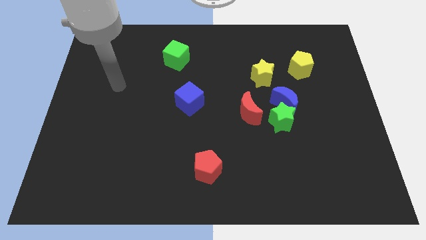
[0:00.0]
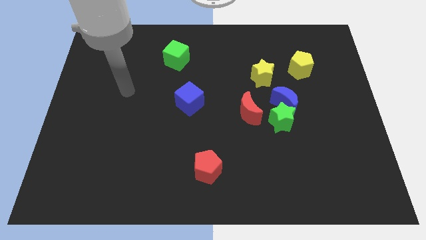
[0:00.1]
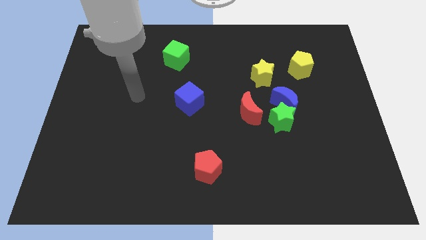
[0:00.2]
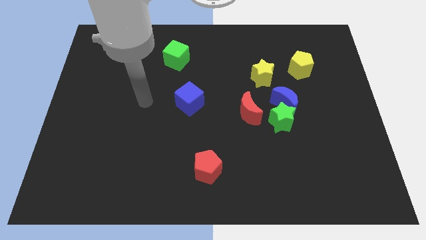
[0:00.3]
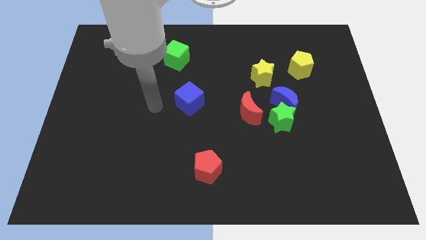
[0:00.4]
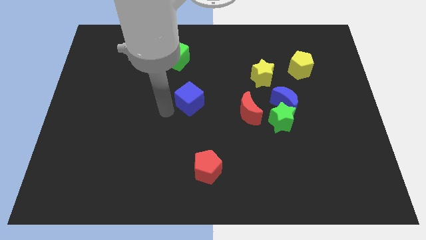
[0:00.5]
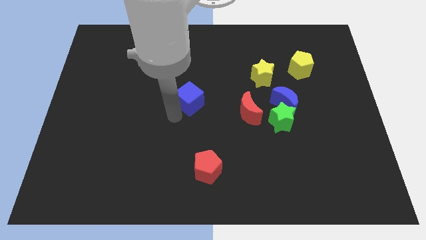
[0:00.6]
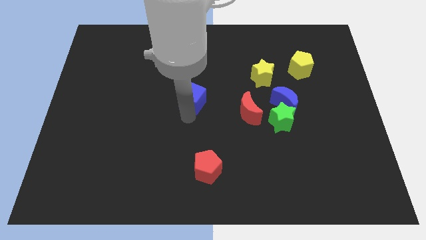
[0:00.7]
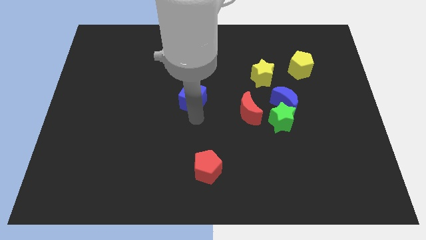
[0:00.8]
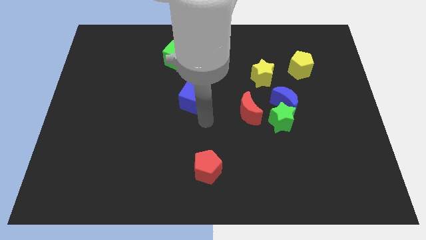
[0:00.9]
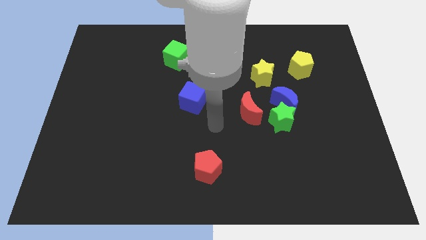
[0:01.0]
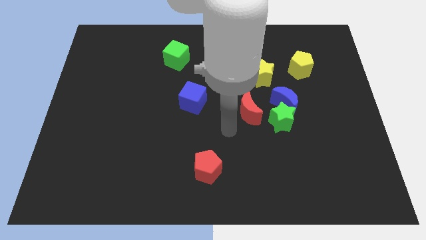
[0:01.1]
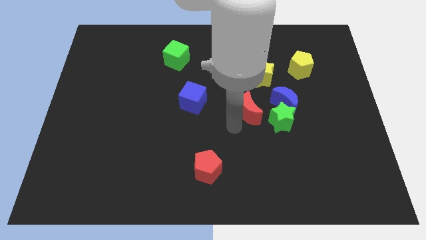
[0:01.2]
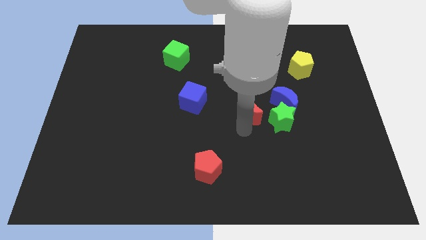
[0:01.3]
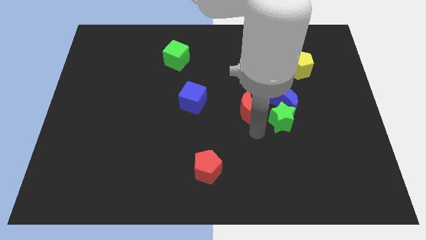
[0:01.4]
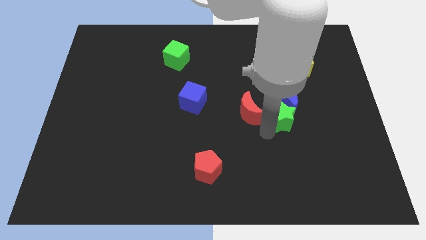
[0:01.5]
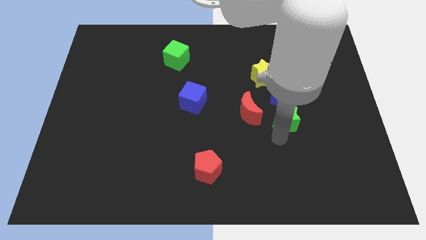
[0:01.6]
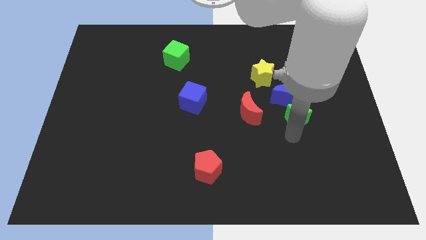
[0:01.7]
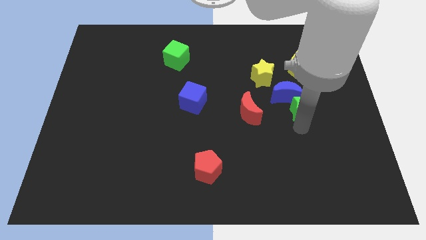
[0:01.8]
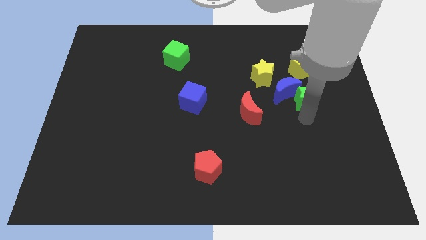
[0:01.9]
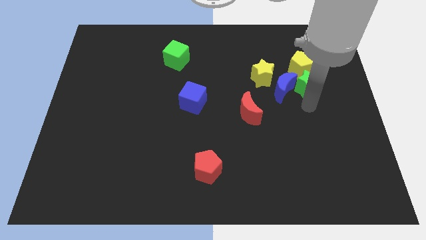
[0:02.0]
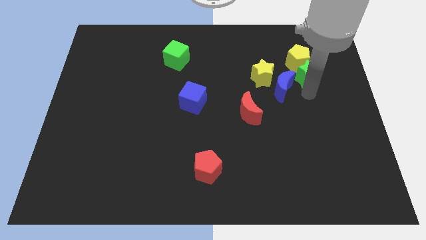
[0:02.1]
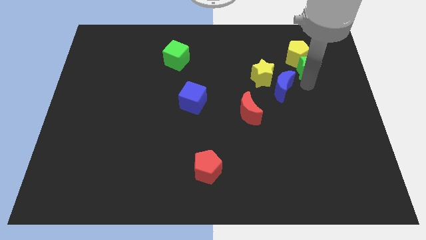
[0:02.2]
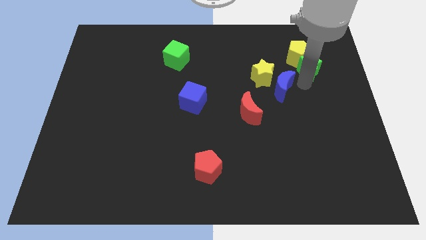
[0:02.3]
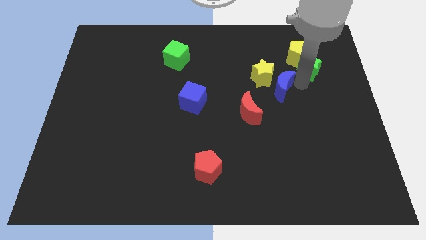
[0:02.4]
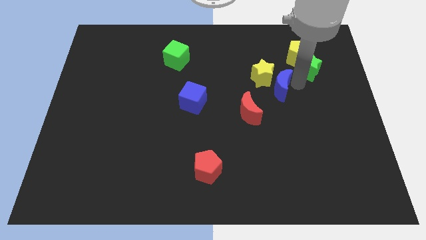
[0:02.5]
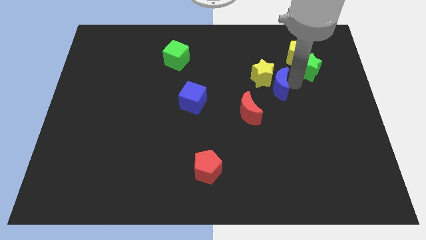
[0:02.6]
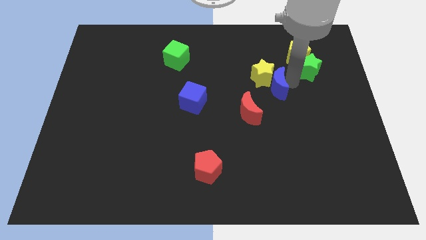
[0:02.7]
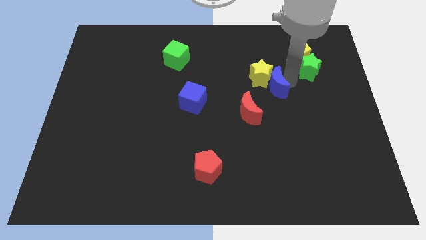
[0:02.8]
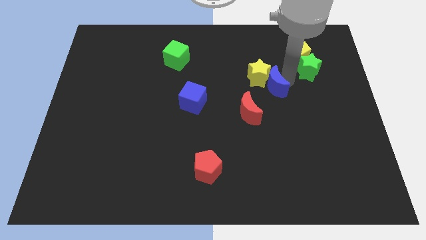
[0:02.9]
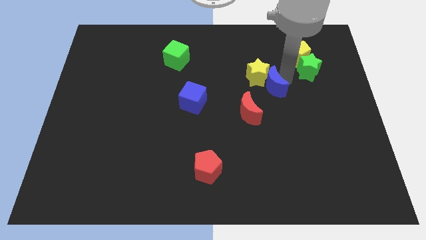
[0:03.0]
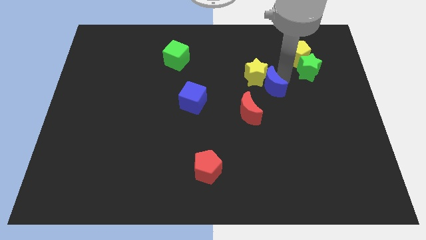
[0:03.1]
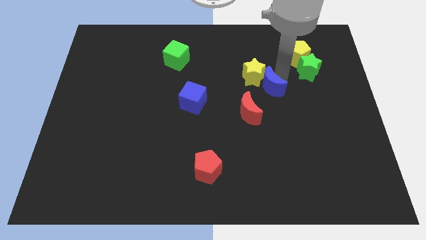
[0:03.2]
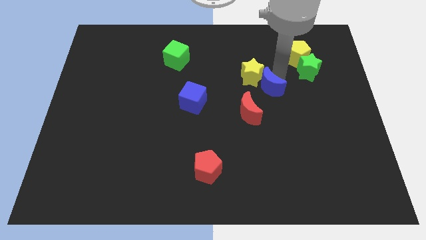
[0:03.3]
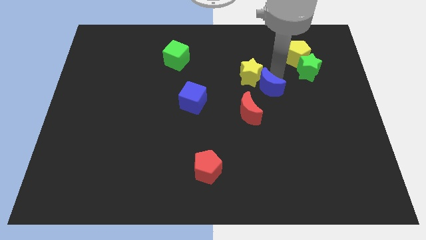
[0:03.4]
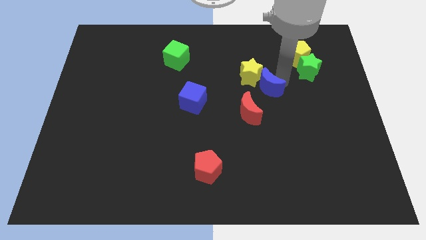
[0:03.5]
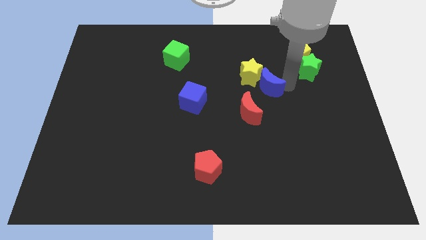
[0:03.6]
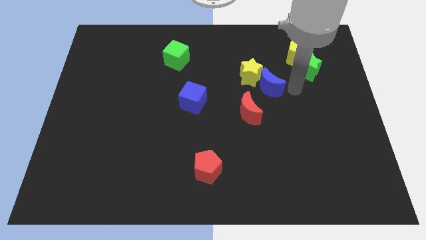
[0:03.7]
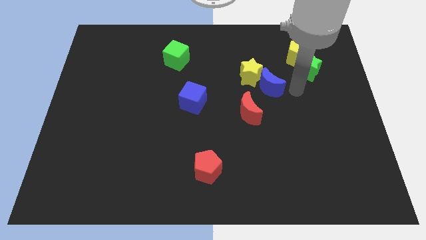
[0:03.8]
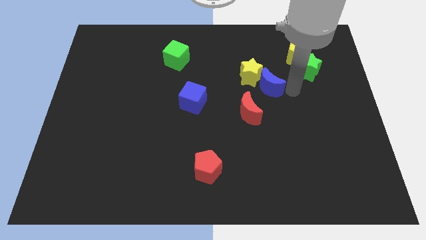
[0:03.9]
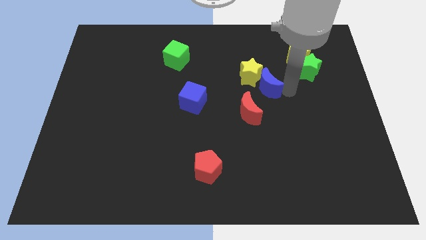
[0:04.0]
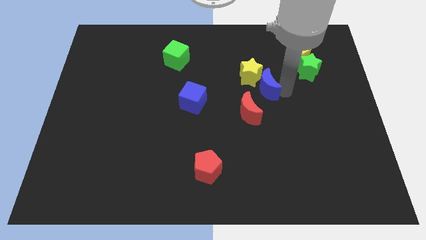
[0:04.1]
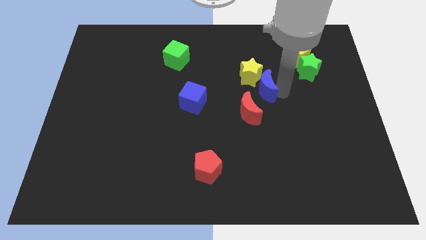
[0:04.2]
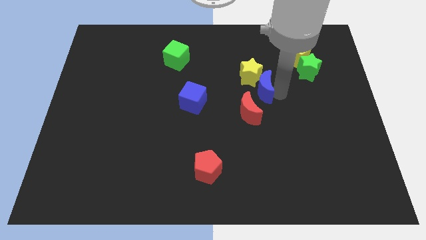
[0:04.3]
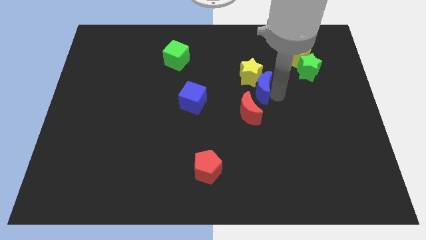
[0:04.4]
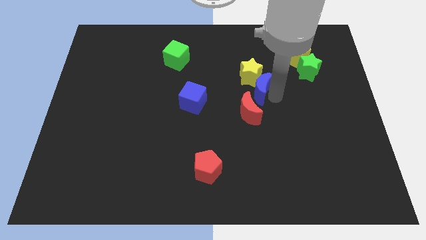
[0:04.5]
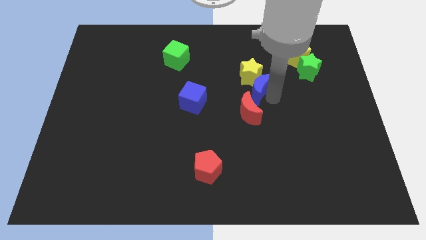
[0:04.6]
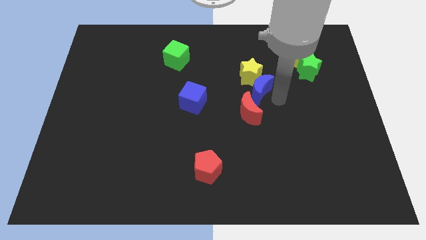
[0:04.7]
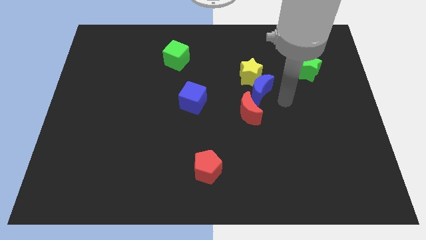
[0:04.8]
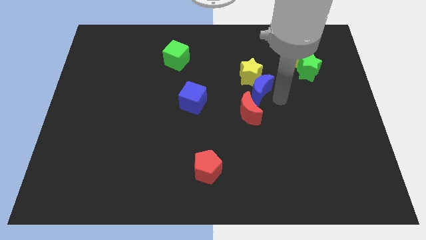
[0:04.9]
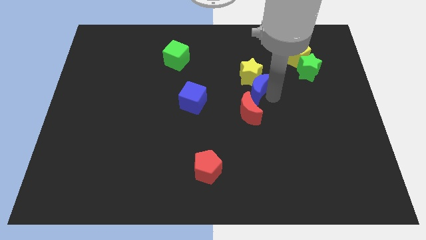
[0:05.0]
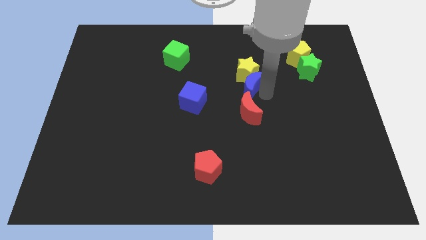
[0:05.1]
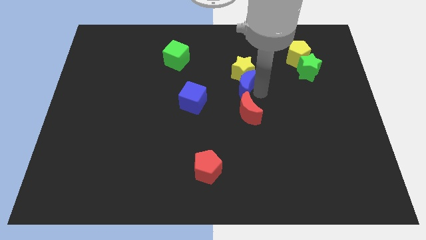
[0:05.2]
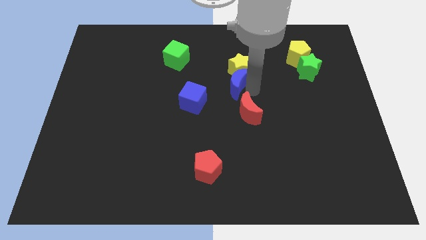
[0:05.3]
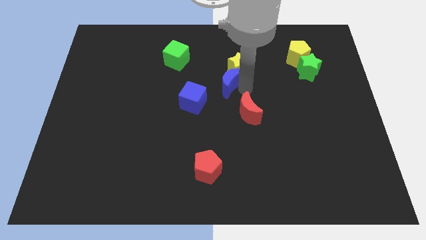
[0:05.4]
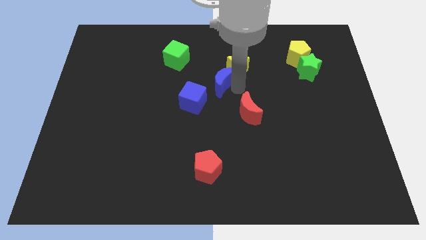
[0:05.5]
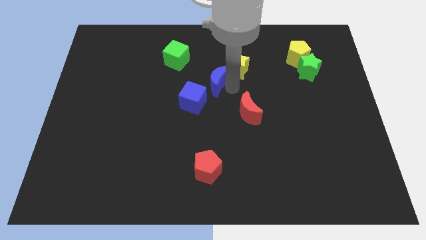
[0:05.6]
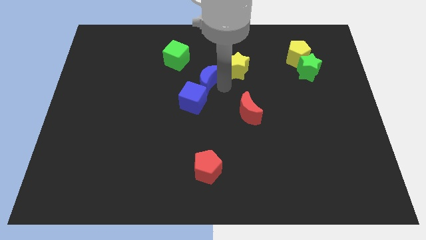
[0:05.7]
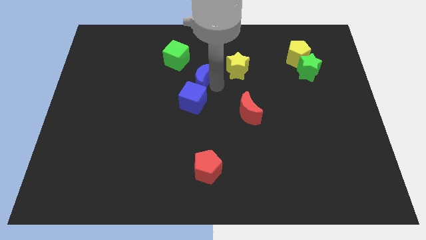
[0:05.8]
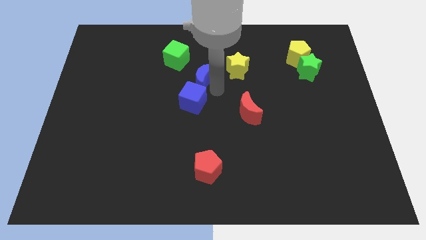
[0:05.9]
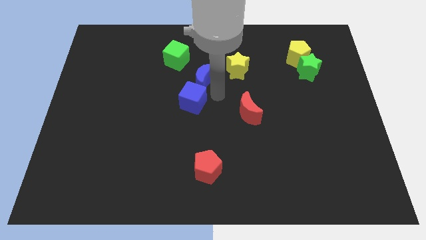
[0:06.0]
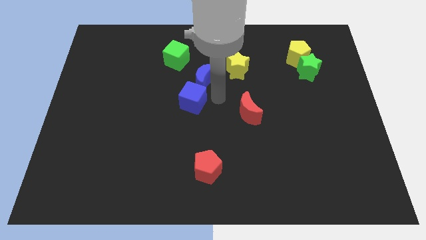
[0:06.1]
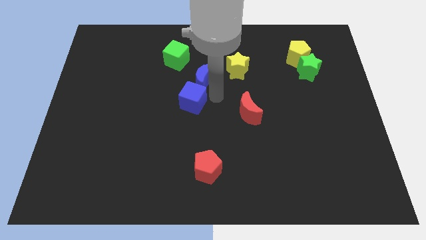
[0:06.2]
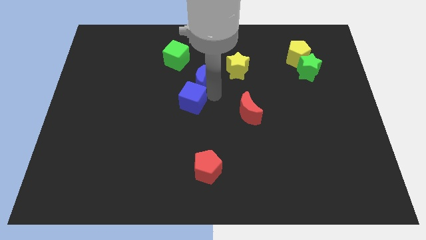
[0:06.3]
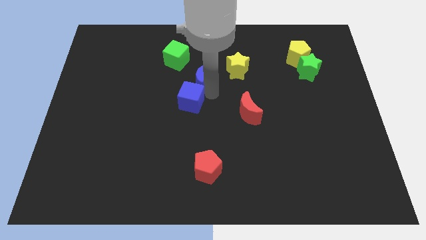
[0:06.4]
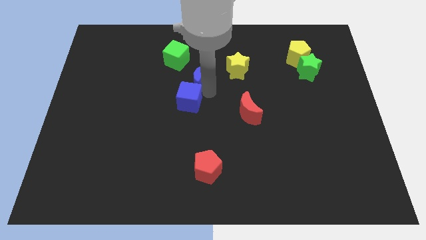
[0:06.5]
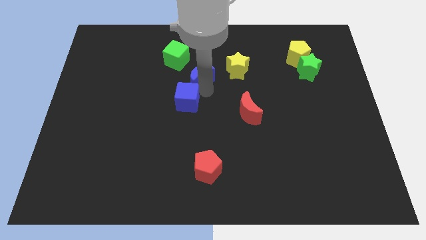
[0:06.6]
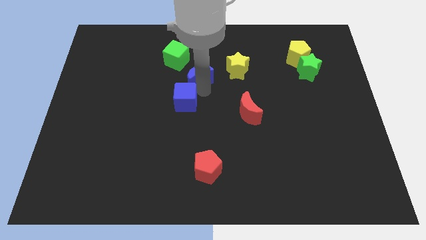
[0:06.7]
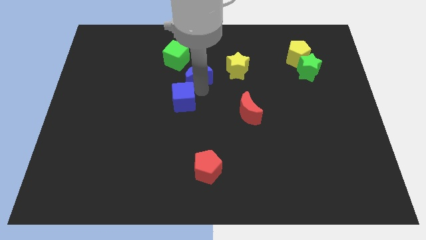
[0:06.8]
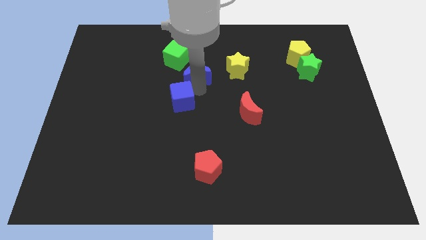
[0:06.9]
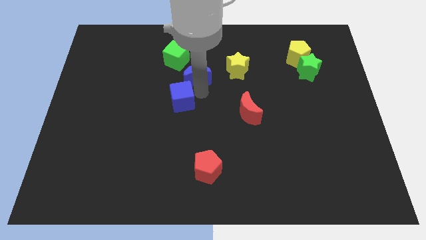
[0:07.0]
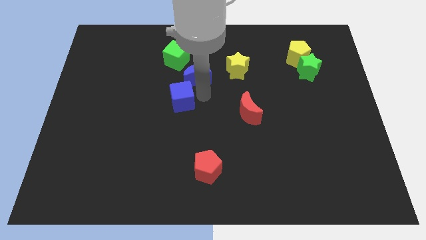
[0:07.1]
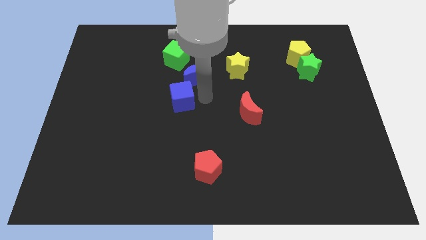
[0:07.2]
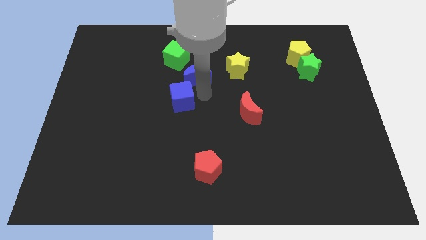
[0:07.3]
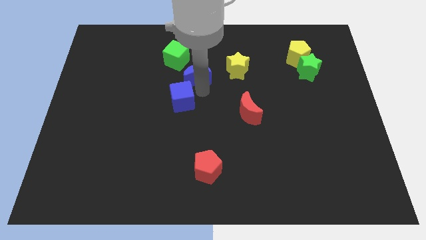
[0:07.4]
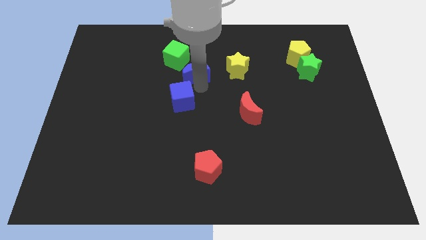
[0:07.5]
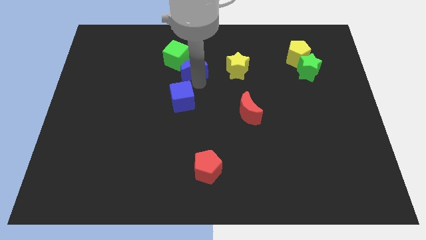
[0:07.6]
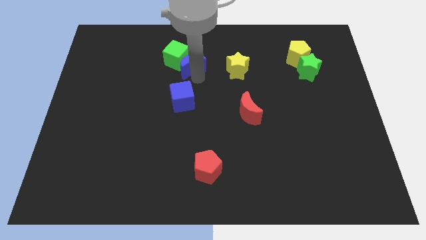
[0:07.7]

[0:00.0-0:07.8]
push the blue moon next to the green cube
